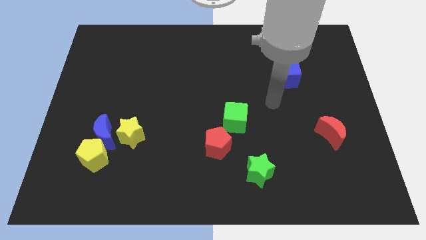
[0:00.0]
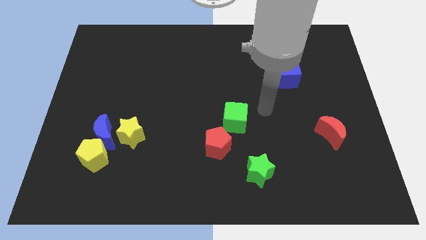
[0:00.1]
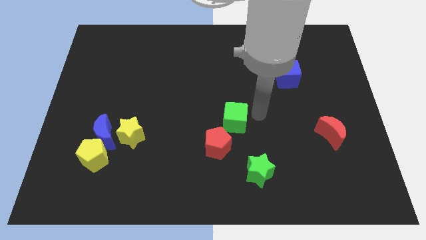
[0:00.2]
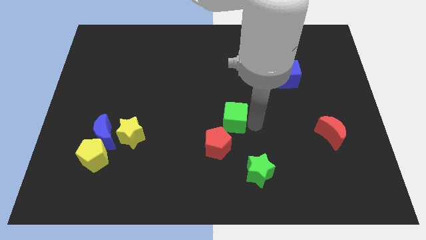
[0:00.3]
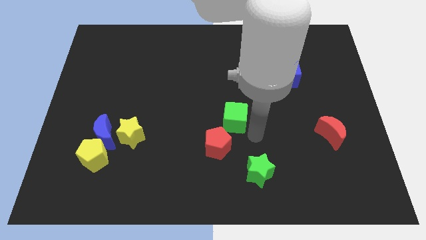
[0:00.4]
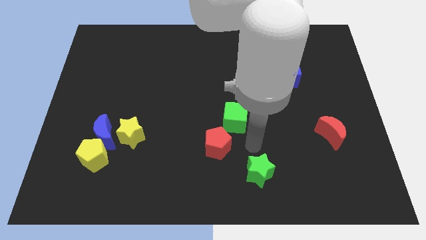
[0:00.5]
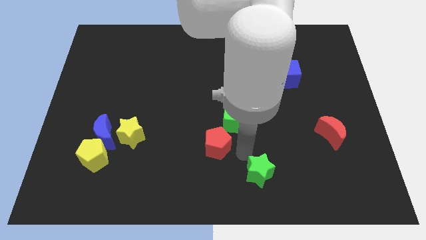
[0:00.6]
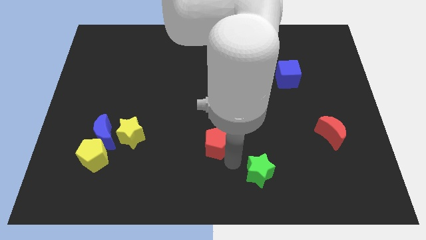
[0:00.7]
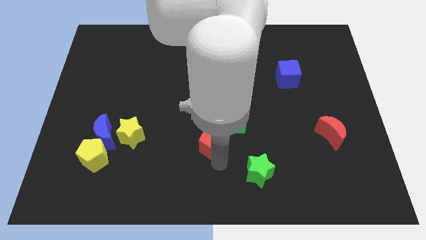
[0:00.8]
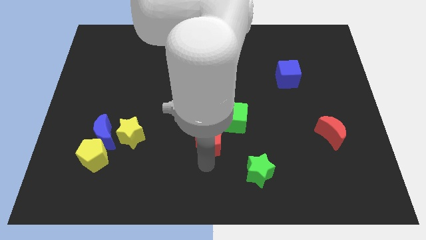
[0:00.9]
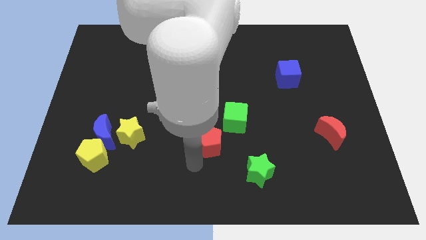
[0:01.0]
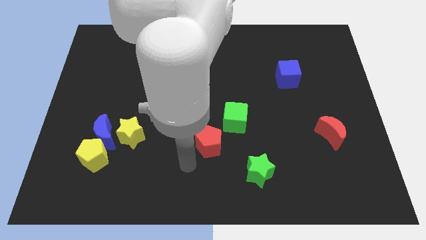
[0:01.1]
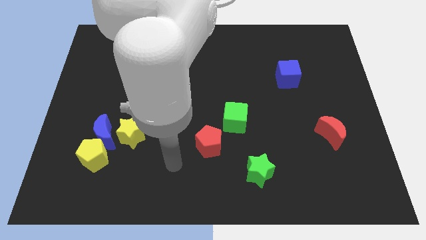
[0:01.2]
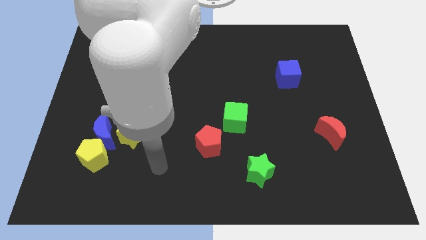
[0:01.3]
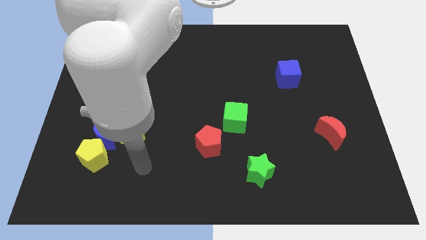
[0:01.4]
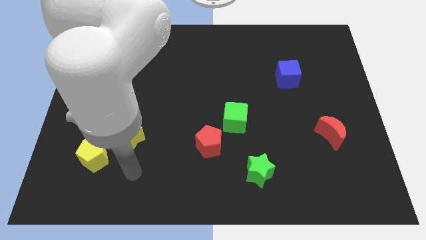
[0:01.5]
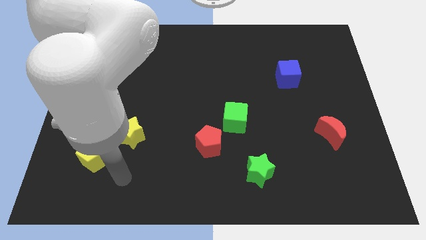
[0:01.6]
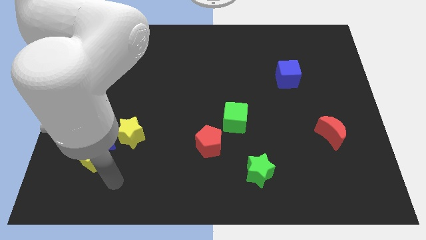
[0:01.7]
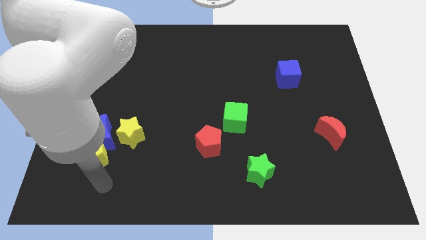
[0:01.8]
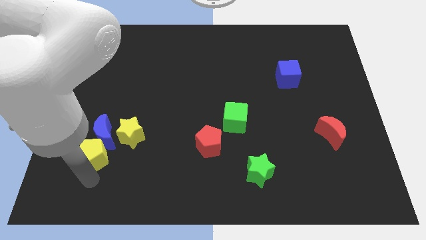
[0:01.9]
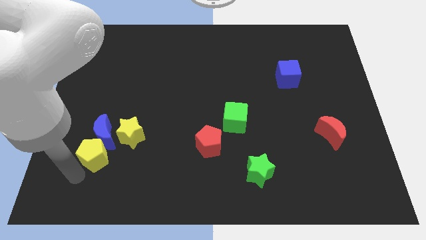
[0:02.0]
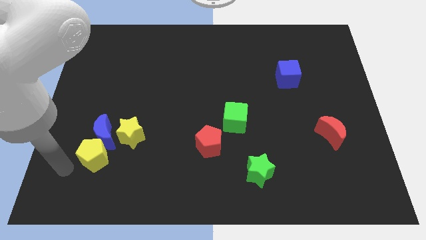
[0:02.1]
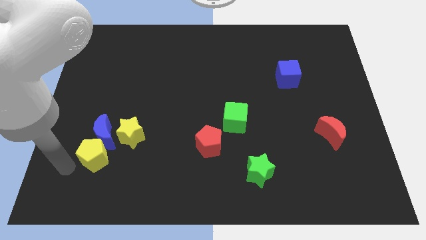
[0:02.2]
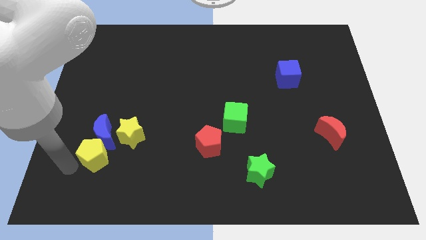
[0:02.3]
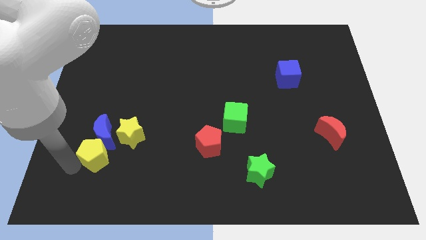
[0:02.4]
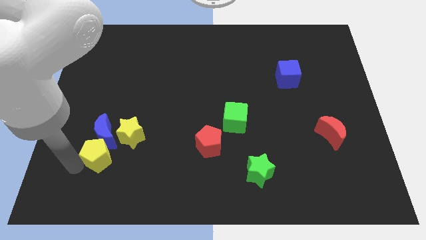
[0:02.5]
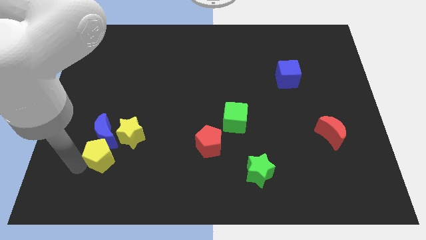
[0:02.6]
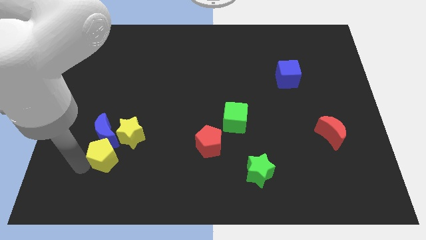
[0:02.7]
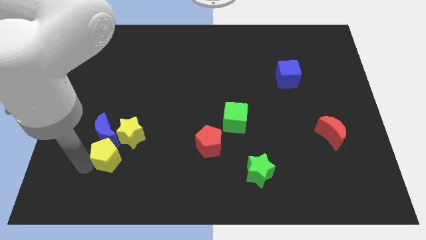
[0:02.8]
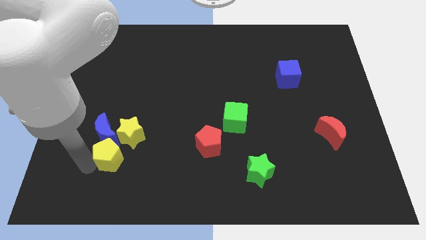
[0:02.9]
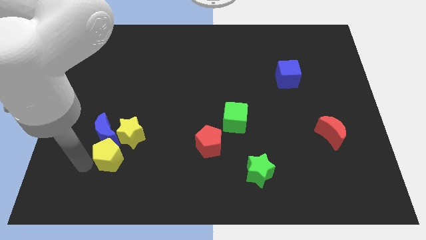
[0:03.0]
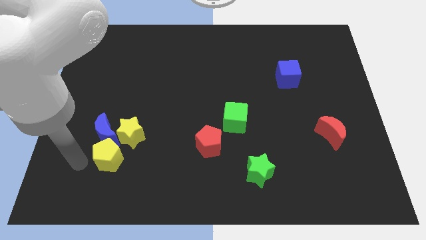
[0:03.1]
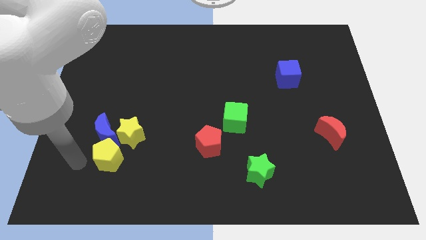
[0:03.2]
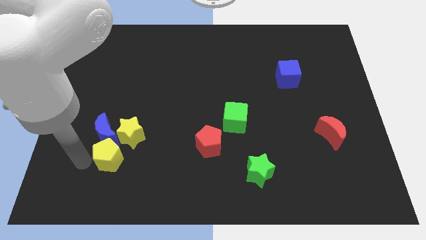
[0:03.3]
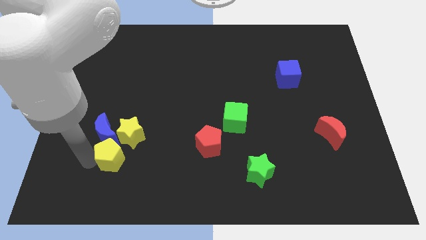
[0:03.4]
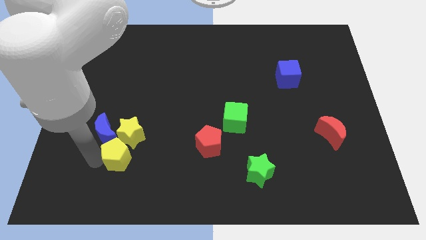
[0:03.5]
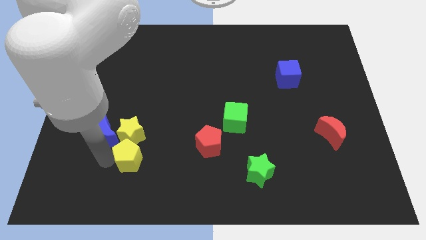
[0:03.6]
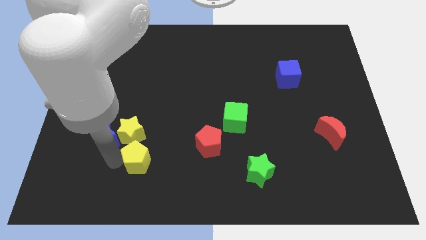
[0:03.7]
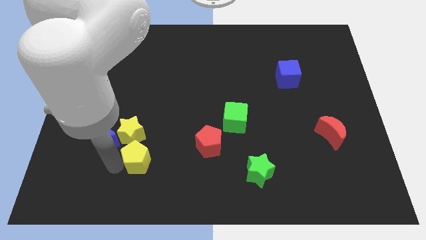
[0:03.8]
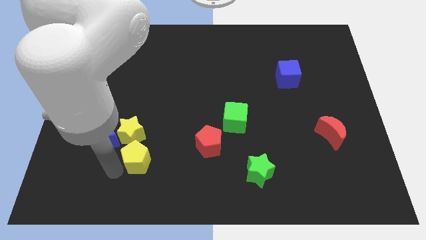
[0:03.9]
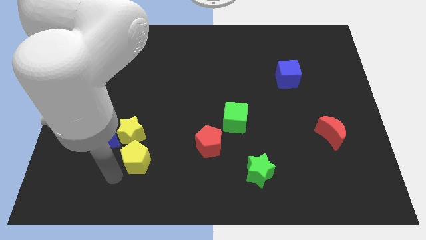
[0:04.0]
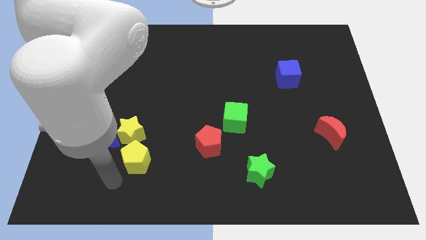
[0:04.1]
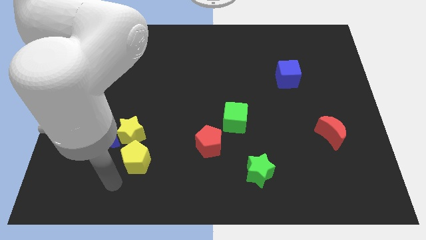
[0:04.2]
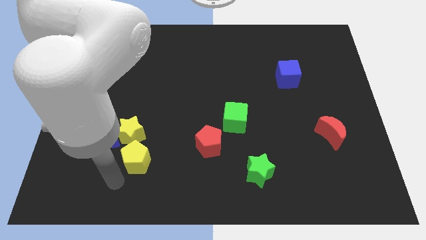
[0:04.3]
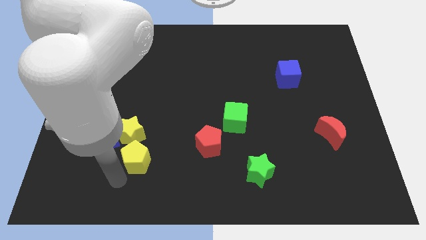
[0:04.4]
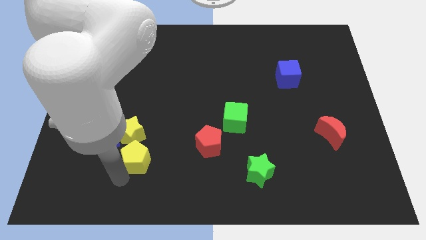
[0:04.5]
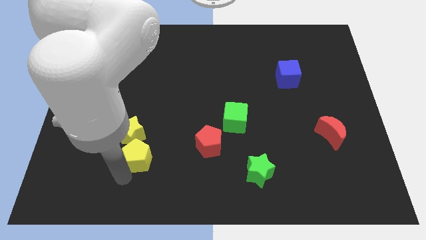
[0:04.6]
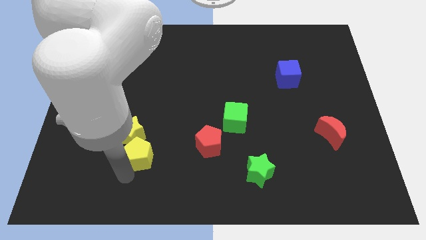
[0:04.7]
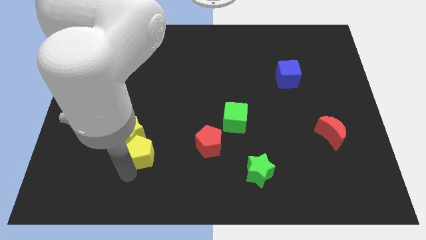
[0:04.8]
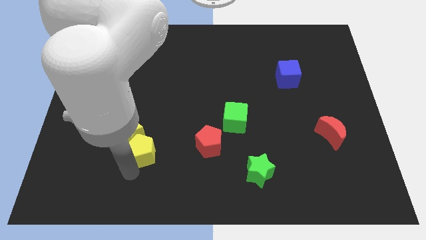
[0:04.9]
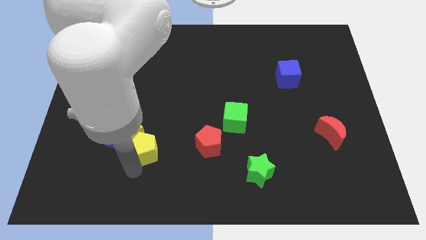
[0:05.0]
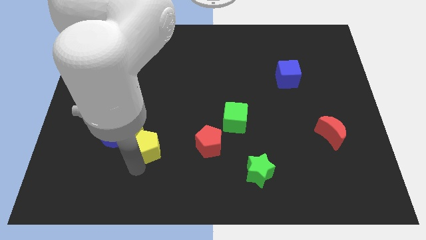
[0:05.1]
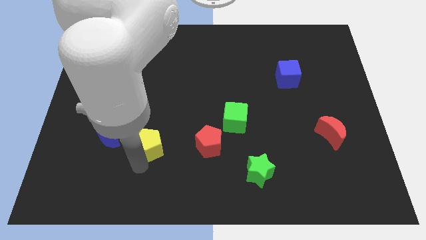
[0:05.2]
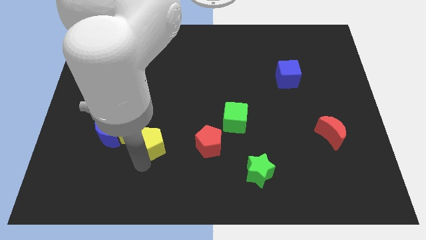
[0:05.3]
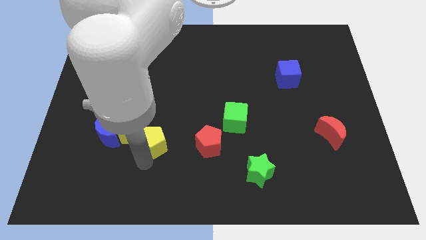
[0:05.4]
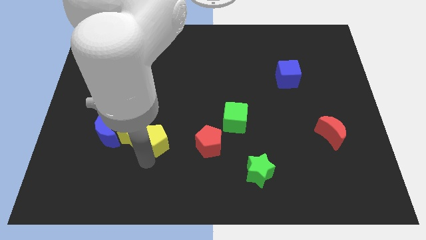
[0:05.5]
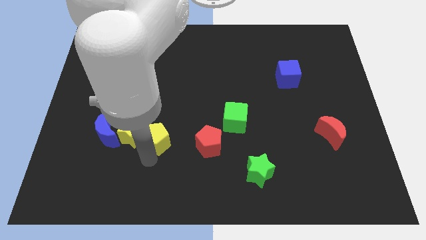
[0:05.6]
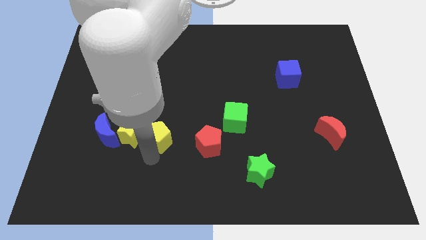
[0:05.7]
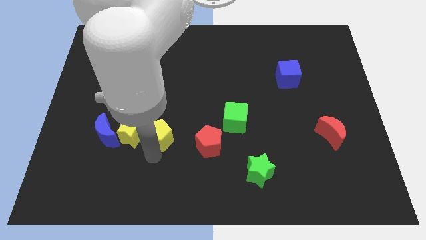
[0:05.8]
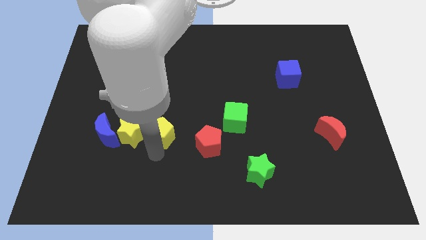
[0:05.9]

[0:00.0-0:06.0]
push the yellow pentagon to the top right side of the yellow star

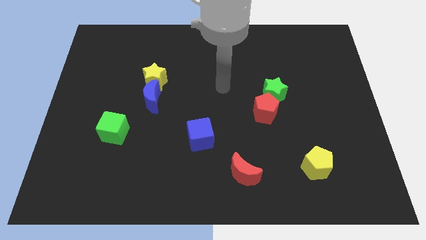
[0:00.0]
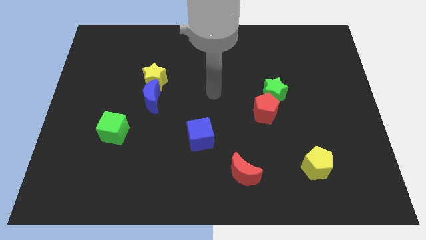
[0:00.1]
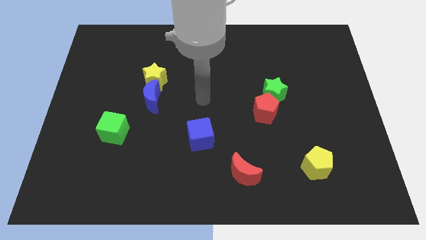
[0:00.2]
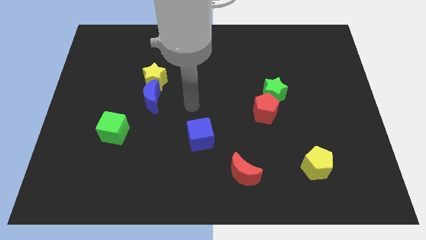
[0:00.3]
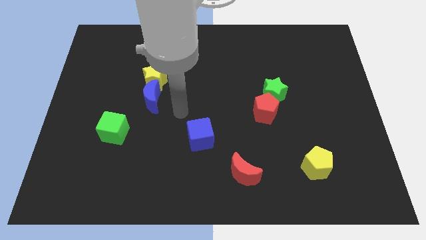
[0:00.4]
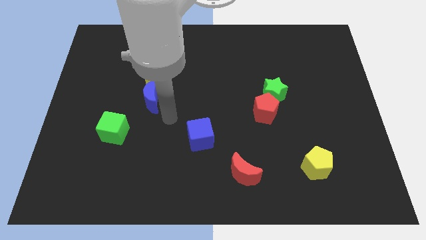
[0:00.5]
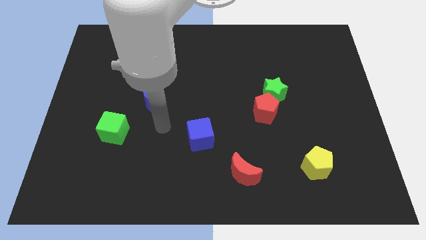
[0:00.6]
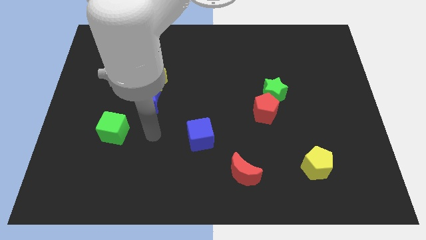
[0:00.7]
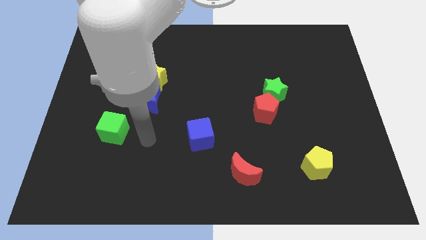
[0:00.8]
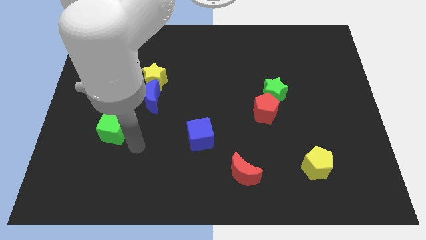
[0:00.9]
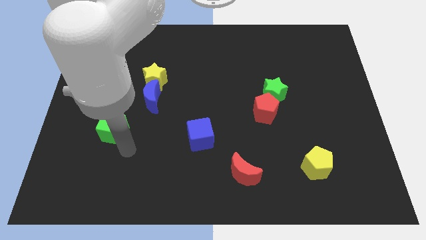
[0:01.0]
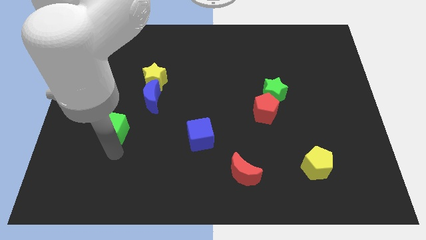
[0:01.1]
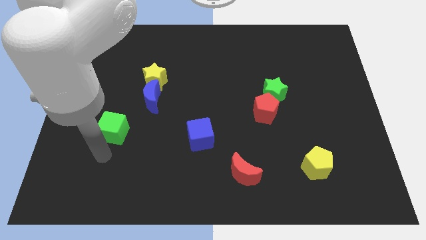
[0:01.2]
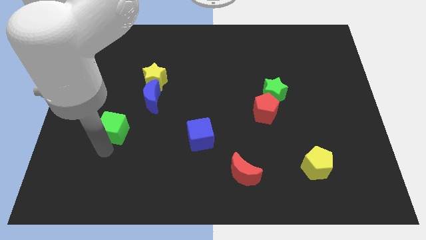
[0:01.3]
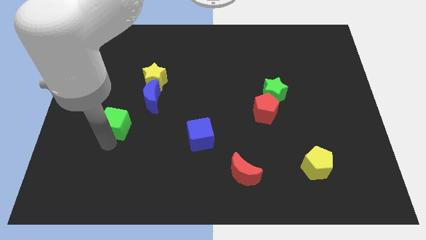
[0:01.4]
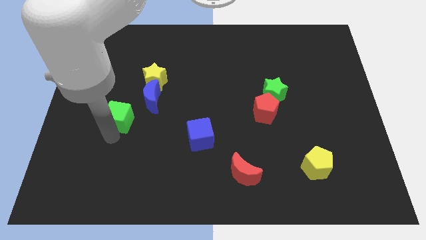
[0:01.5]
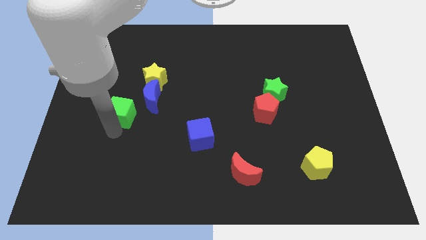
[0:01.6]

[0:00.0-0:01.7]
slide the green cube to the bottom left side of the yellow star
